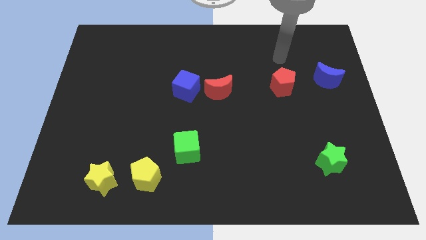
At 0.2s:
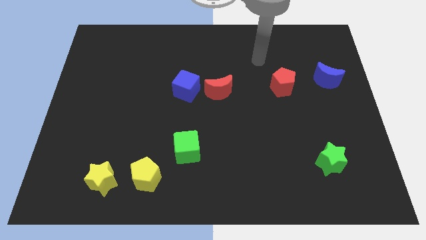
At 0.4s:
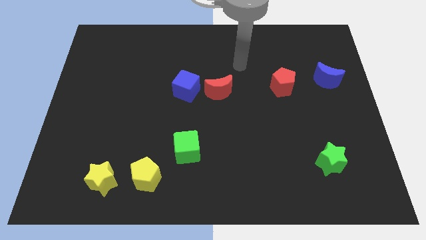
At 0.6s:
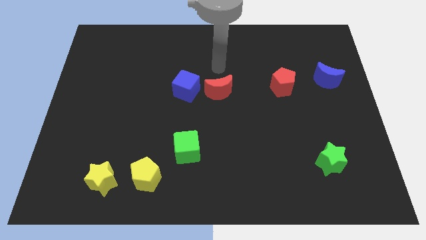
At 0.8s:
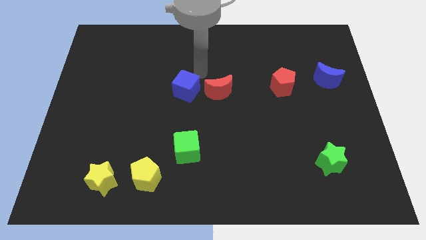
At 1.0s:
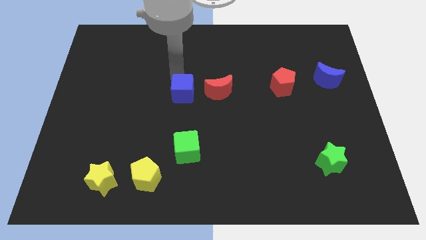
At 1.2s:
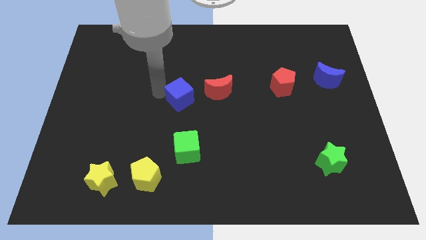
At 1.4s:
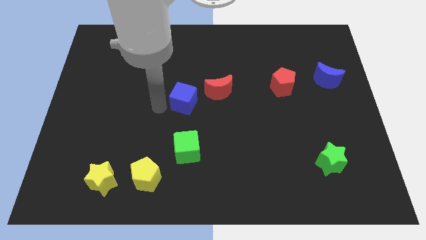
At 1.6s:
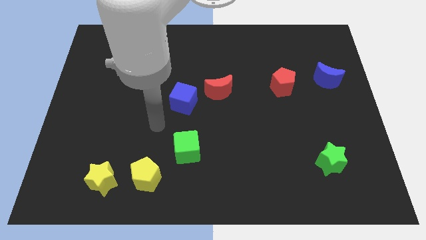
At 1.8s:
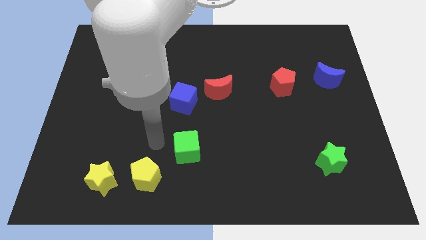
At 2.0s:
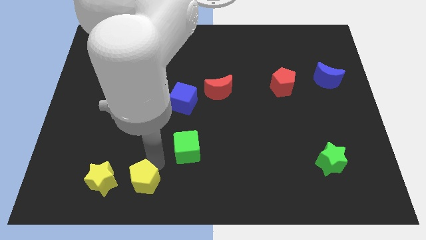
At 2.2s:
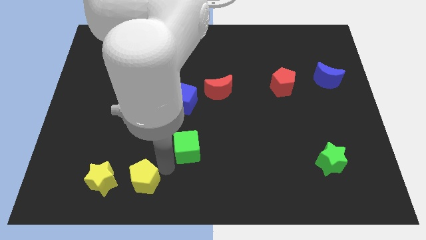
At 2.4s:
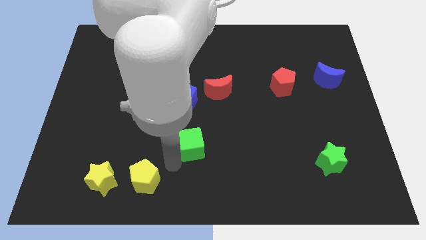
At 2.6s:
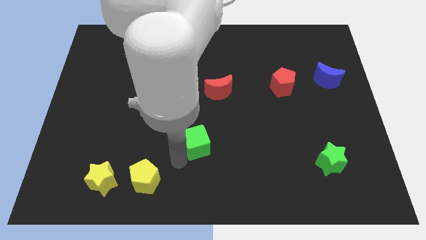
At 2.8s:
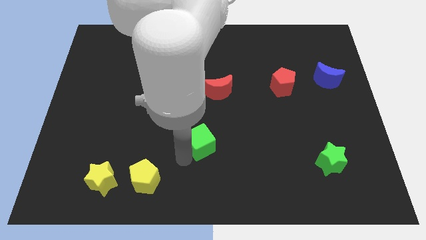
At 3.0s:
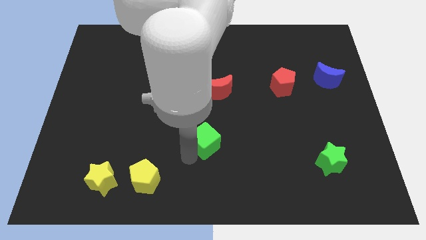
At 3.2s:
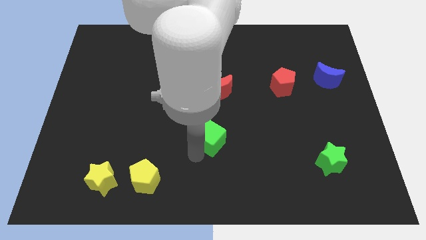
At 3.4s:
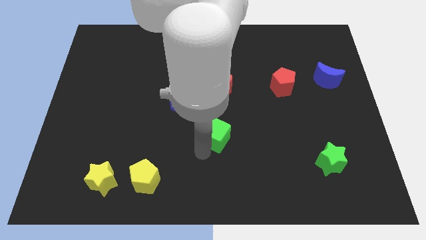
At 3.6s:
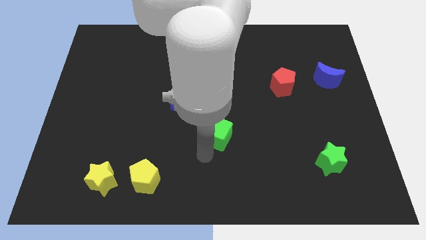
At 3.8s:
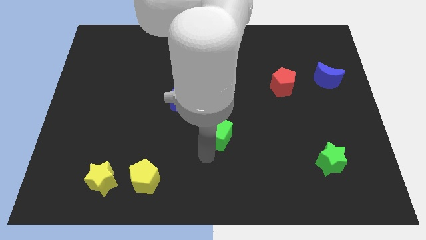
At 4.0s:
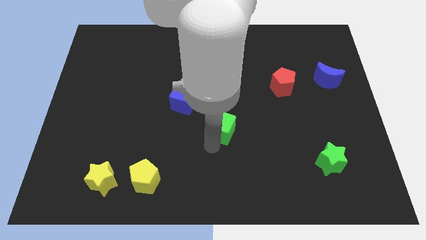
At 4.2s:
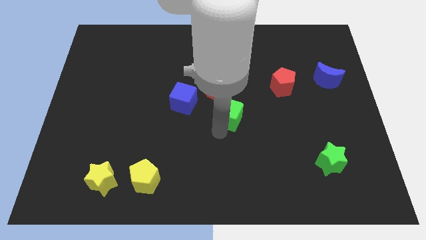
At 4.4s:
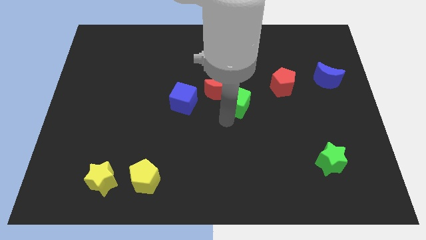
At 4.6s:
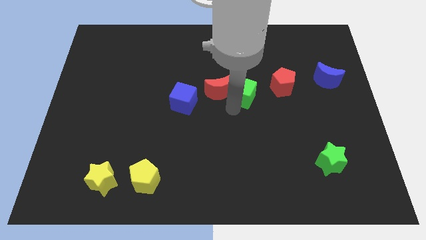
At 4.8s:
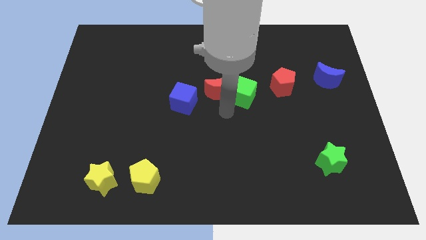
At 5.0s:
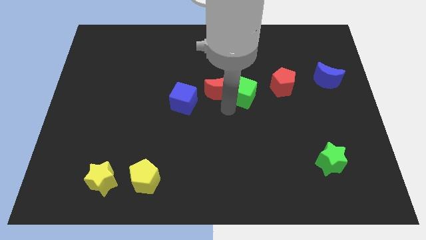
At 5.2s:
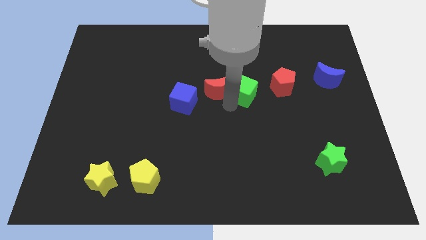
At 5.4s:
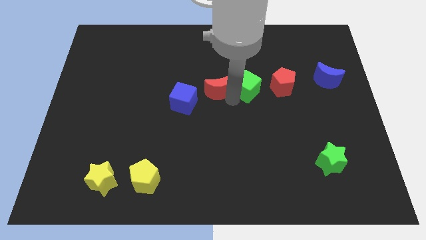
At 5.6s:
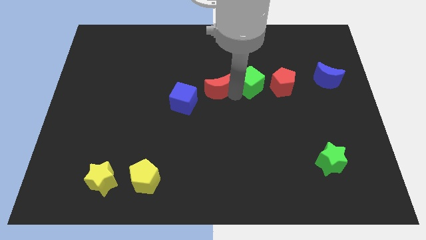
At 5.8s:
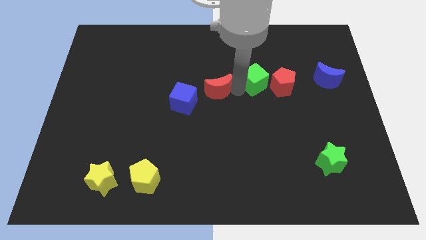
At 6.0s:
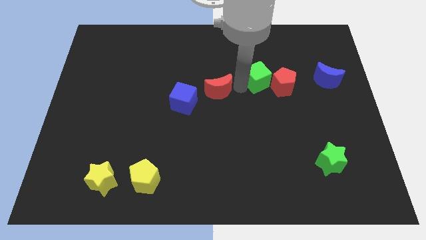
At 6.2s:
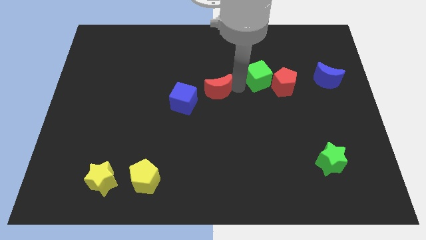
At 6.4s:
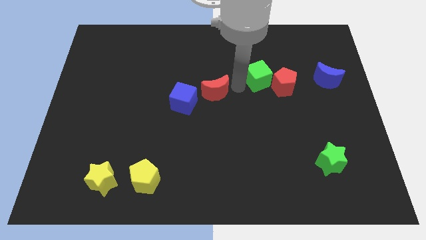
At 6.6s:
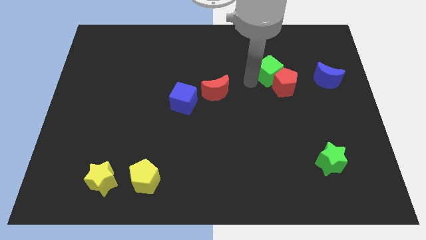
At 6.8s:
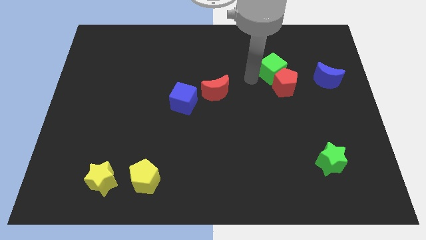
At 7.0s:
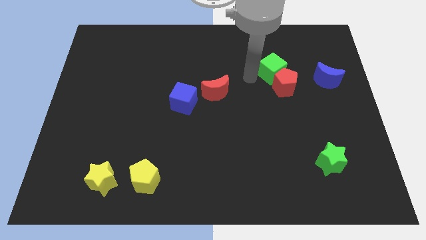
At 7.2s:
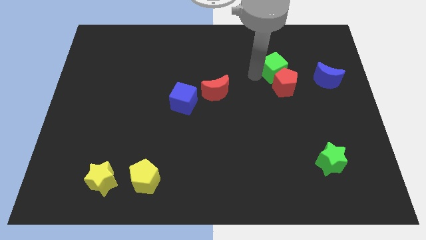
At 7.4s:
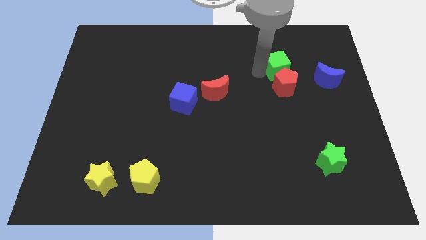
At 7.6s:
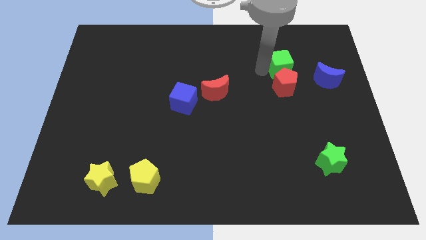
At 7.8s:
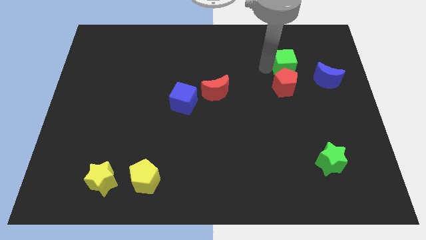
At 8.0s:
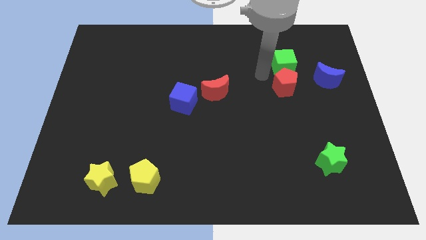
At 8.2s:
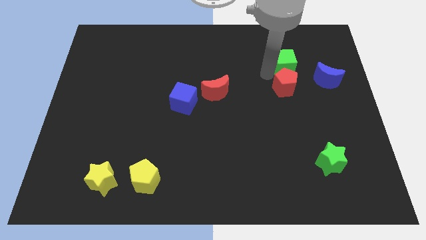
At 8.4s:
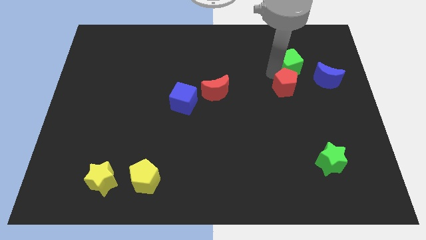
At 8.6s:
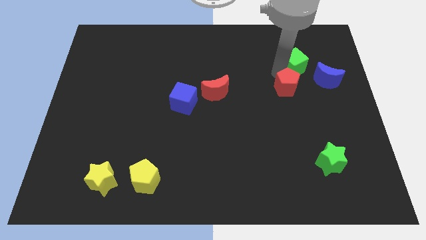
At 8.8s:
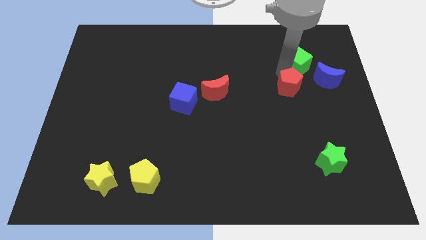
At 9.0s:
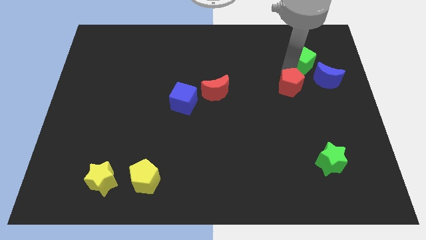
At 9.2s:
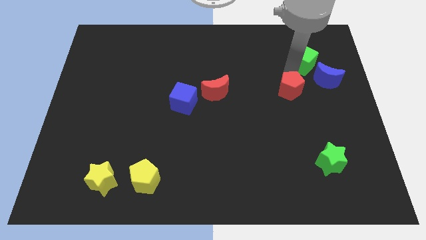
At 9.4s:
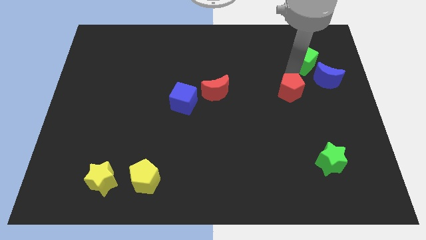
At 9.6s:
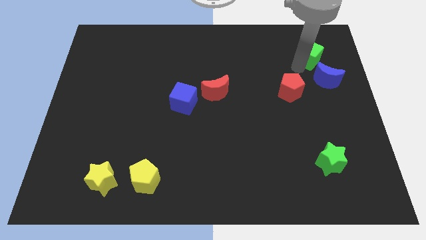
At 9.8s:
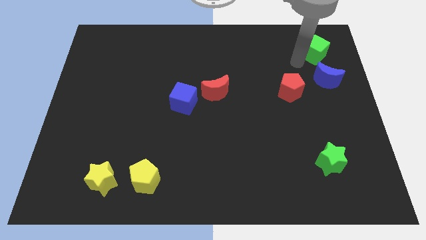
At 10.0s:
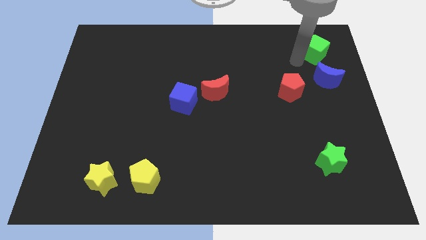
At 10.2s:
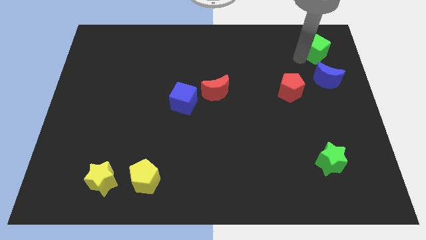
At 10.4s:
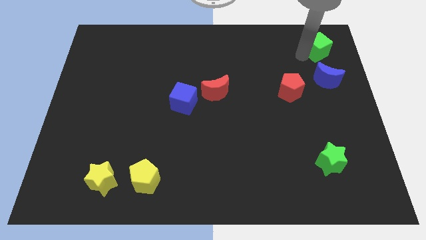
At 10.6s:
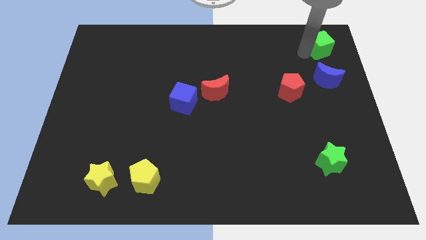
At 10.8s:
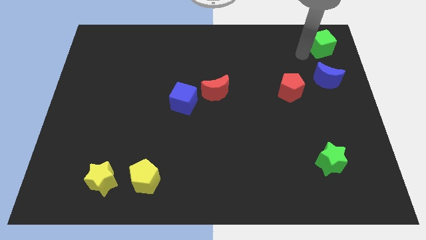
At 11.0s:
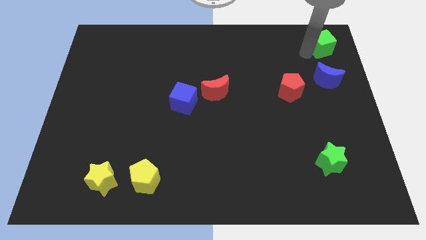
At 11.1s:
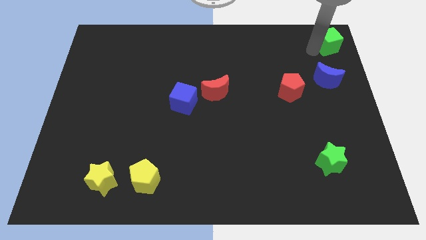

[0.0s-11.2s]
put the green cube to the upper right corner

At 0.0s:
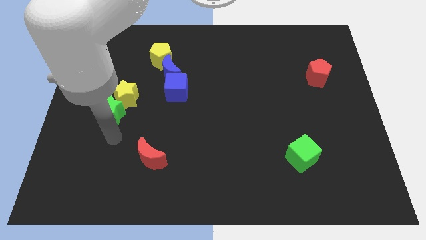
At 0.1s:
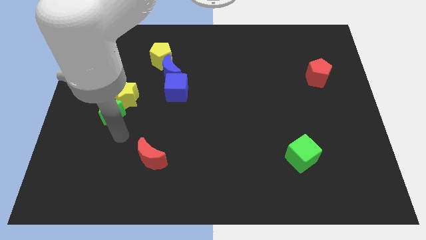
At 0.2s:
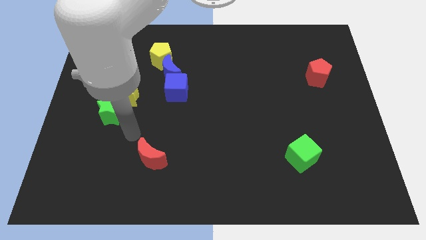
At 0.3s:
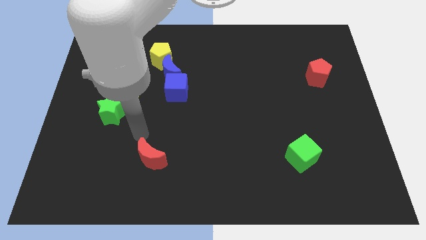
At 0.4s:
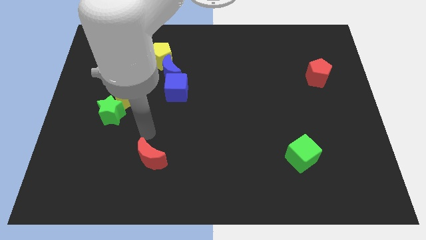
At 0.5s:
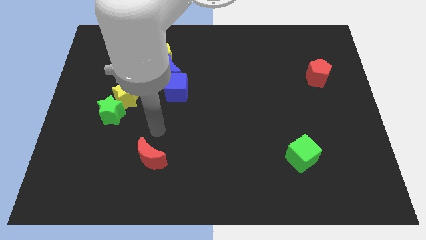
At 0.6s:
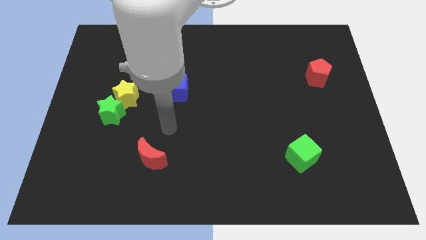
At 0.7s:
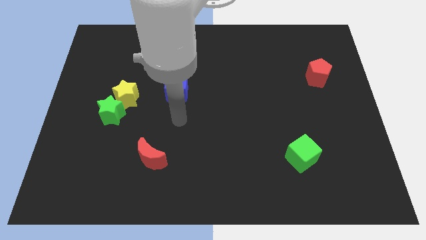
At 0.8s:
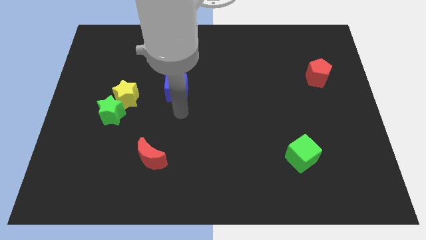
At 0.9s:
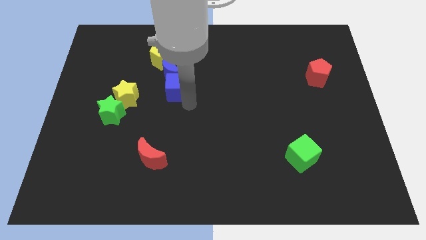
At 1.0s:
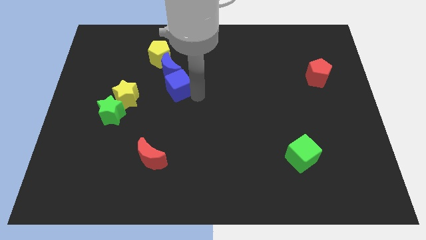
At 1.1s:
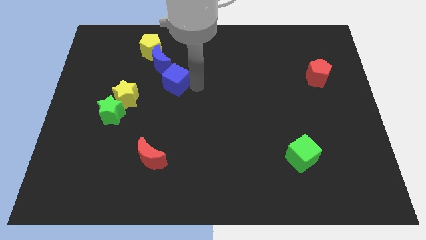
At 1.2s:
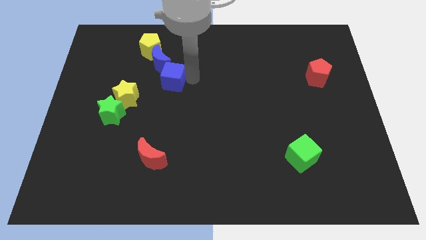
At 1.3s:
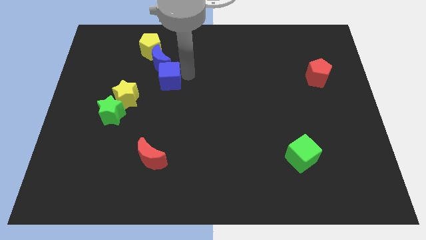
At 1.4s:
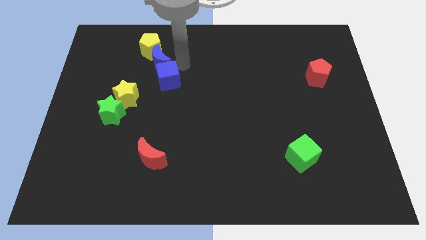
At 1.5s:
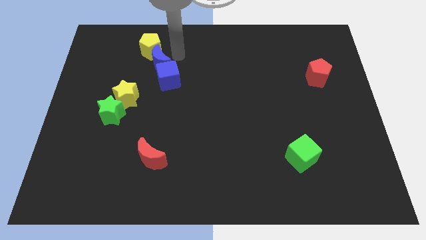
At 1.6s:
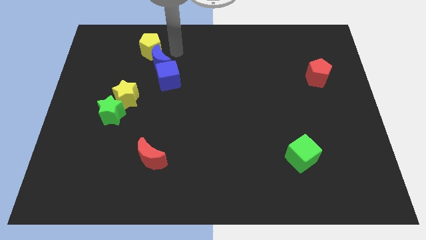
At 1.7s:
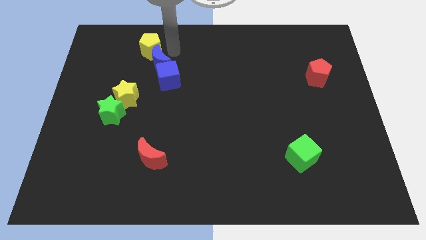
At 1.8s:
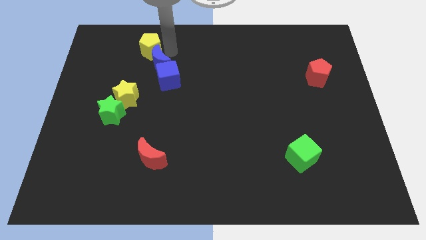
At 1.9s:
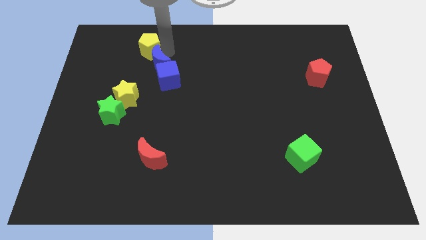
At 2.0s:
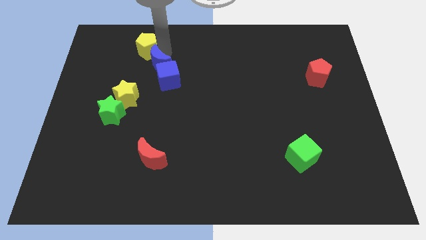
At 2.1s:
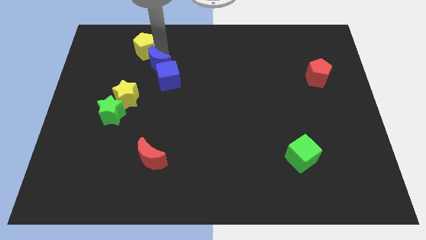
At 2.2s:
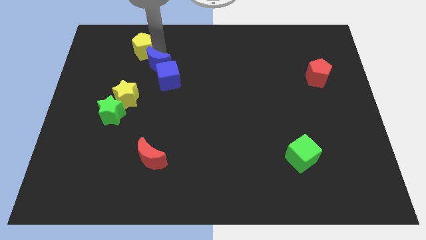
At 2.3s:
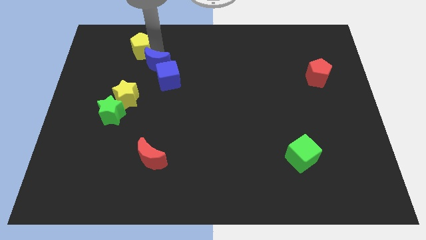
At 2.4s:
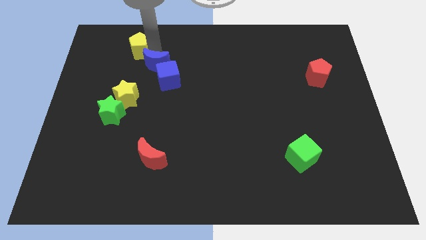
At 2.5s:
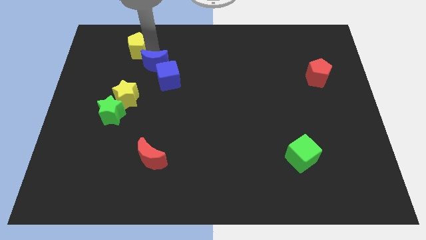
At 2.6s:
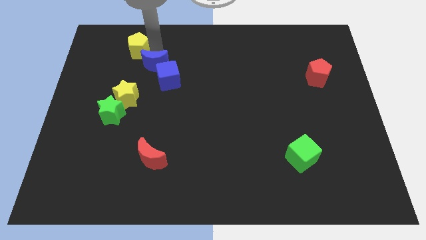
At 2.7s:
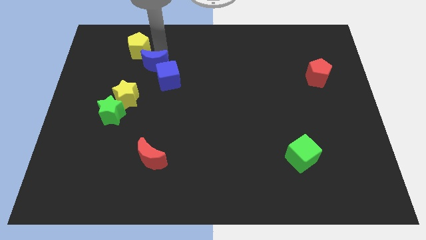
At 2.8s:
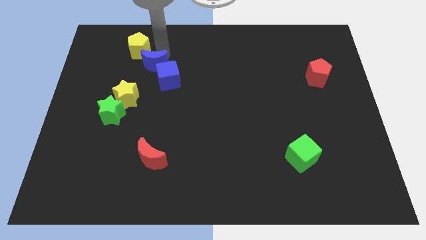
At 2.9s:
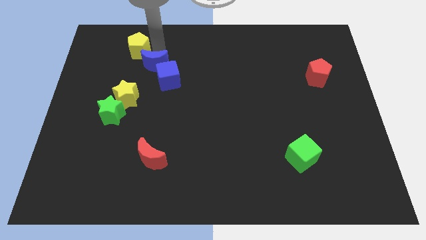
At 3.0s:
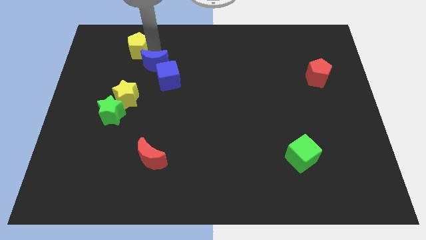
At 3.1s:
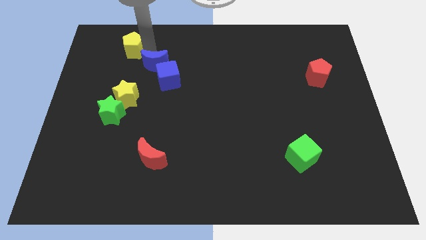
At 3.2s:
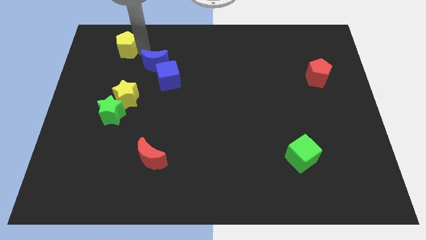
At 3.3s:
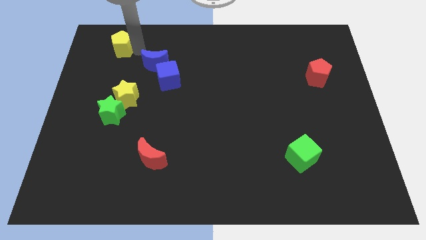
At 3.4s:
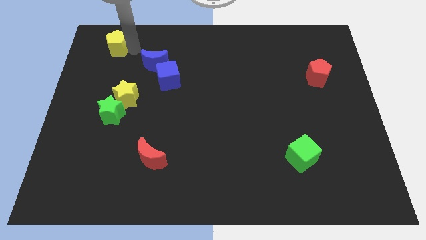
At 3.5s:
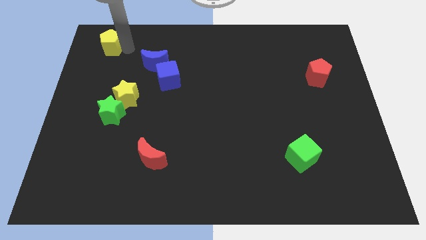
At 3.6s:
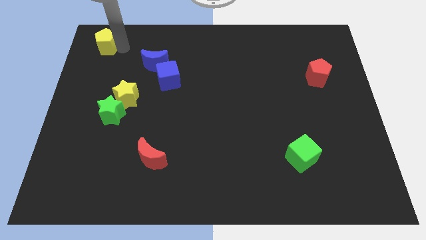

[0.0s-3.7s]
push the yellow pentagon to the upper left corner
